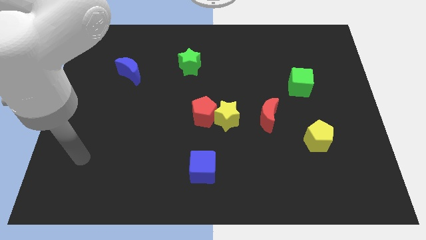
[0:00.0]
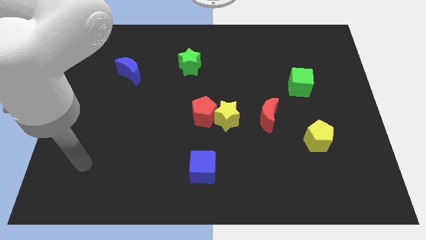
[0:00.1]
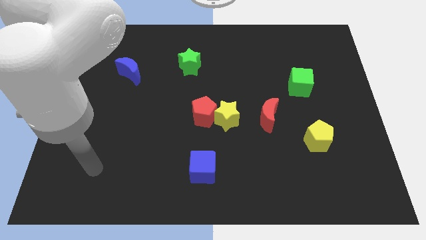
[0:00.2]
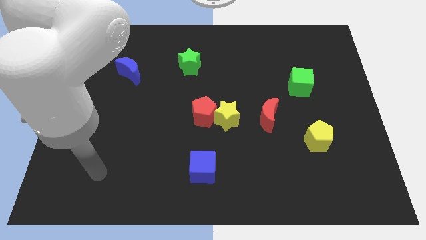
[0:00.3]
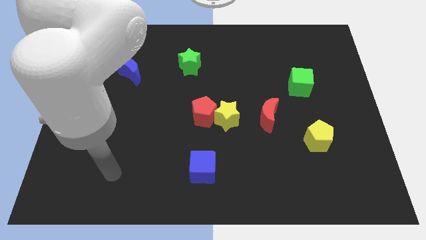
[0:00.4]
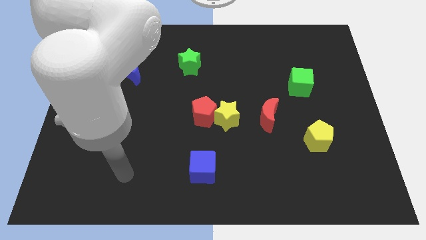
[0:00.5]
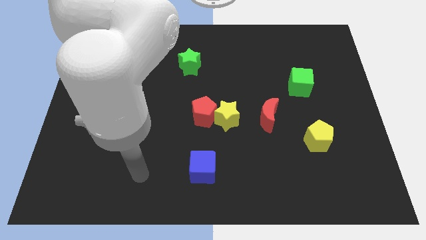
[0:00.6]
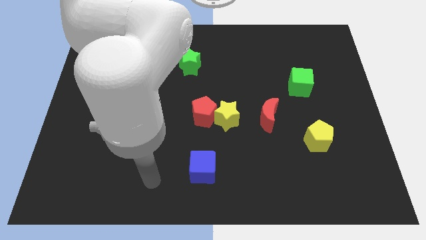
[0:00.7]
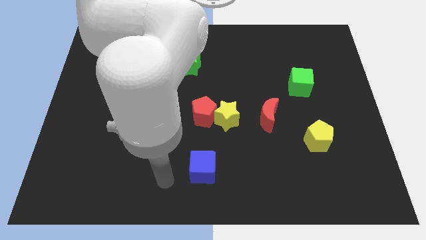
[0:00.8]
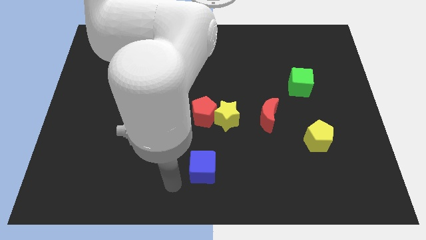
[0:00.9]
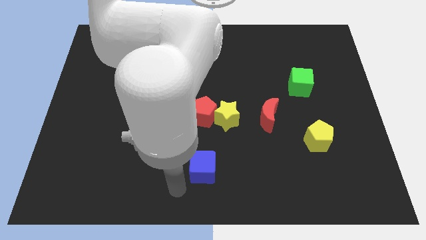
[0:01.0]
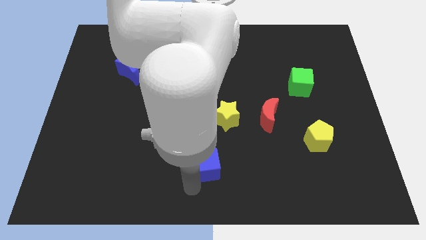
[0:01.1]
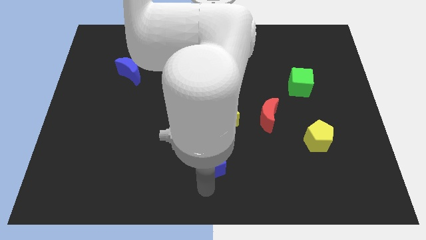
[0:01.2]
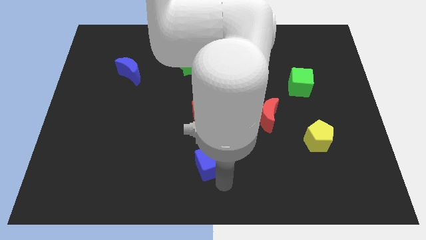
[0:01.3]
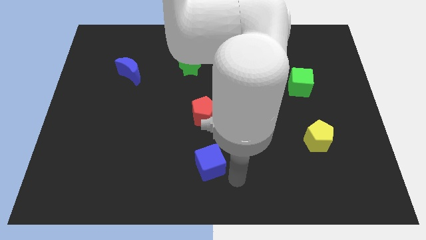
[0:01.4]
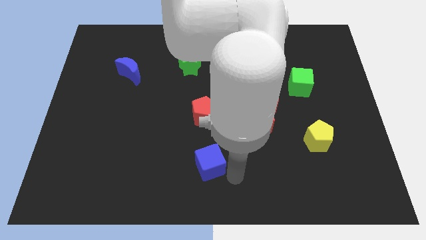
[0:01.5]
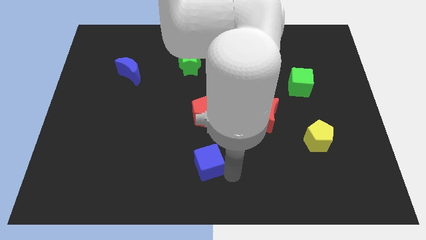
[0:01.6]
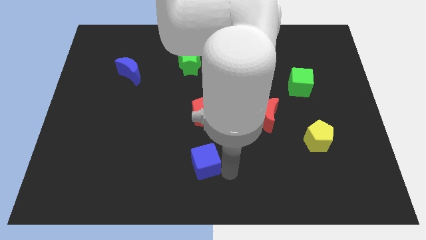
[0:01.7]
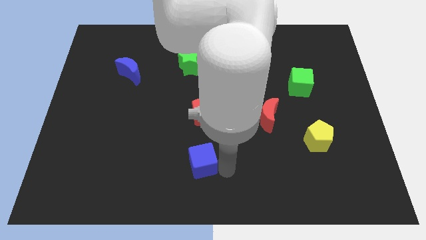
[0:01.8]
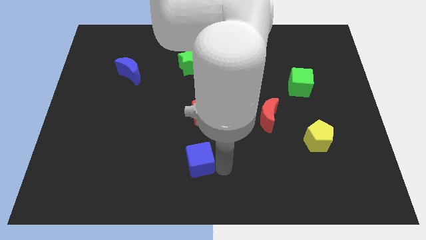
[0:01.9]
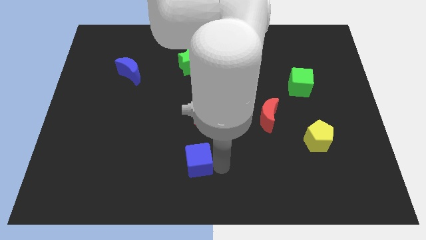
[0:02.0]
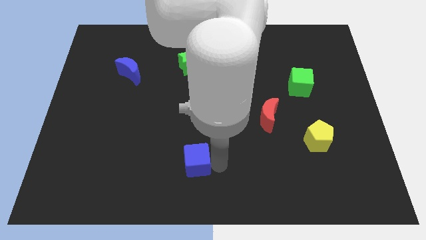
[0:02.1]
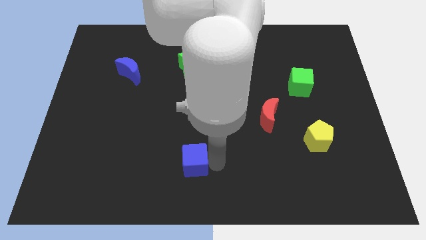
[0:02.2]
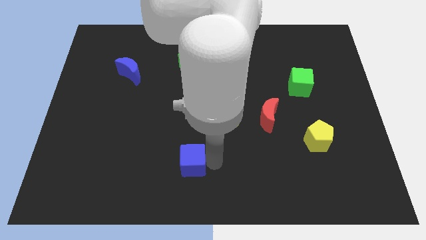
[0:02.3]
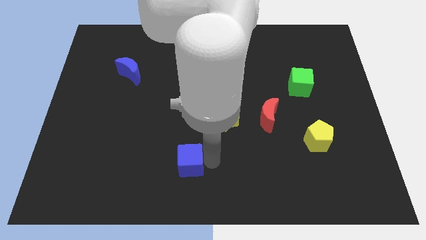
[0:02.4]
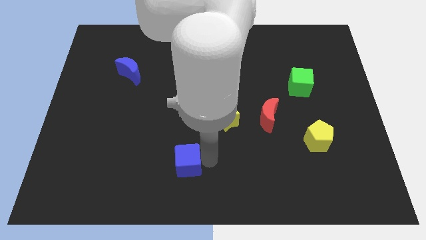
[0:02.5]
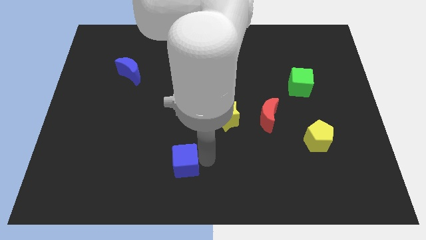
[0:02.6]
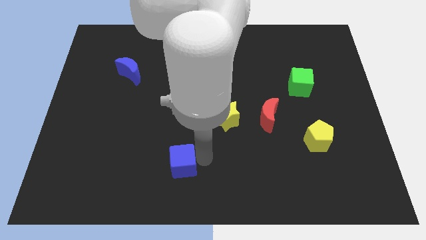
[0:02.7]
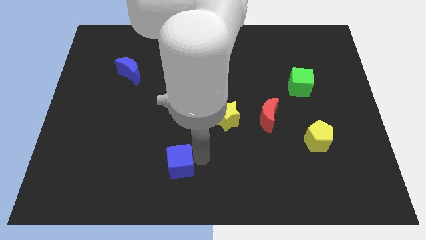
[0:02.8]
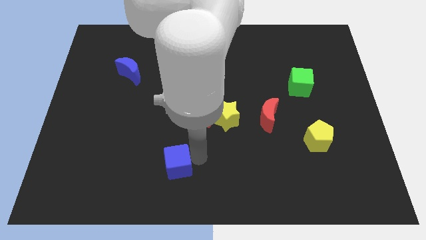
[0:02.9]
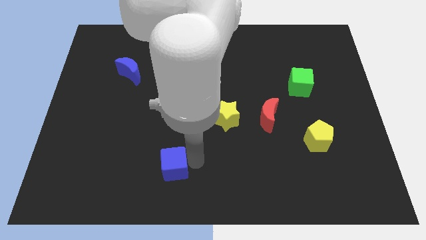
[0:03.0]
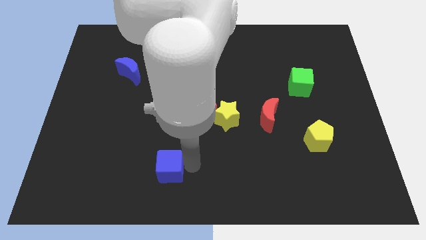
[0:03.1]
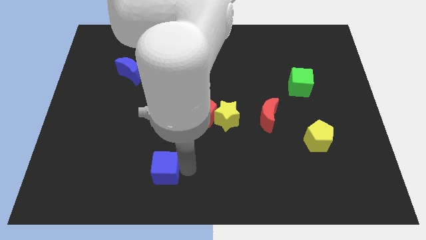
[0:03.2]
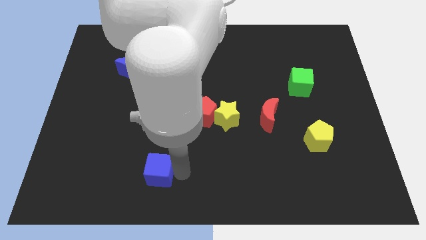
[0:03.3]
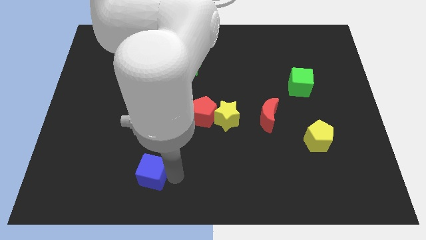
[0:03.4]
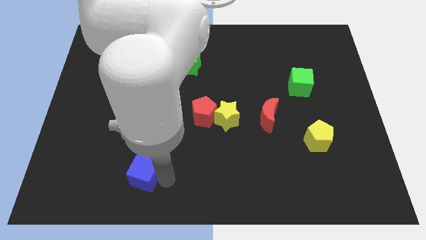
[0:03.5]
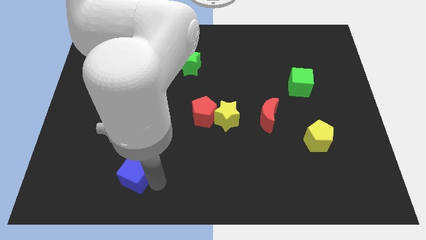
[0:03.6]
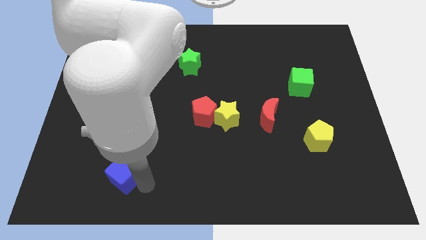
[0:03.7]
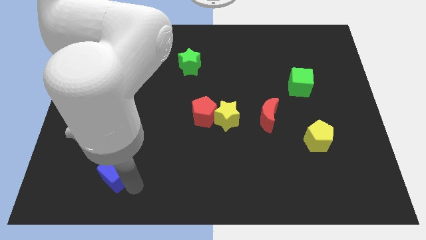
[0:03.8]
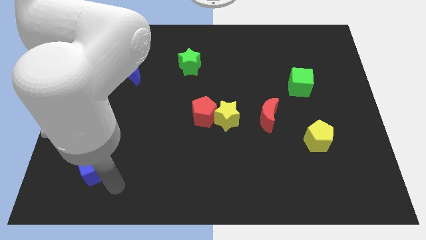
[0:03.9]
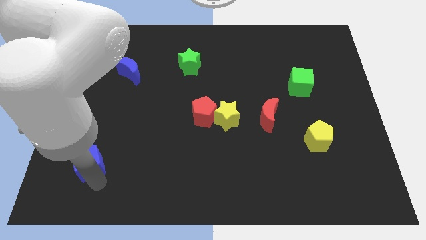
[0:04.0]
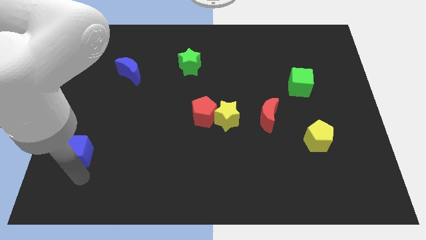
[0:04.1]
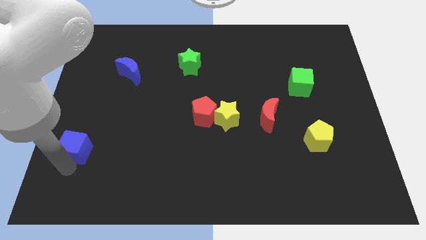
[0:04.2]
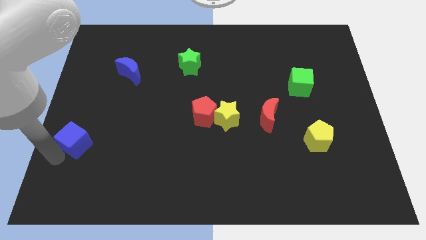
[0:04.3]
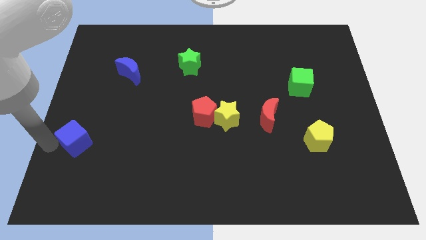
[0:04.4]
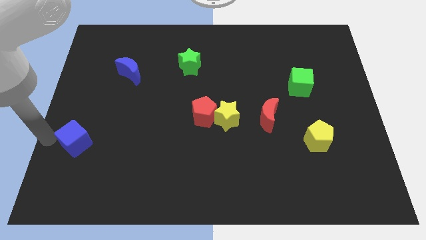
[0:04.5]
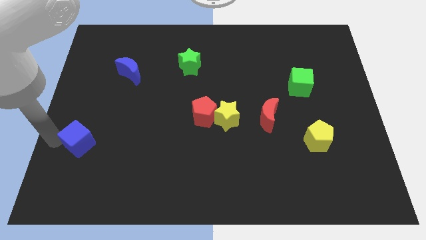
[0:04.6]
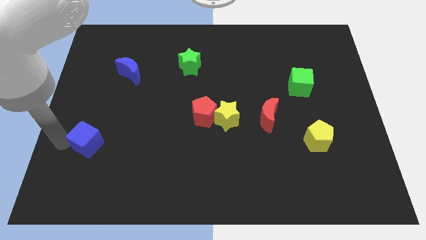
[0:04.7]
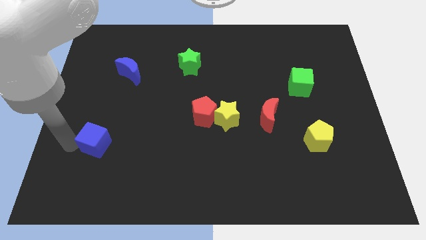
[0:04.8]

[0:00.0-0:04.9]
slightly move the blue cube up and to the left

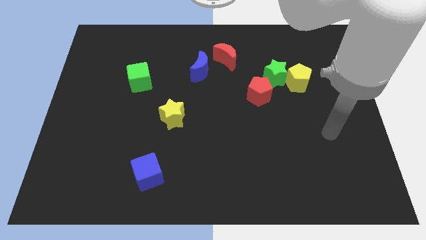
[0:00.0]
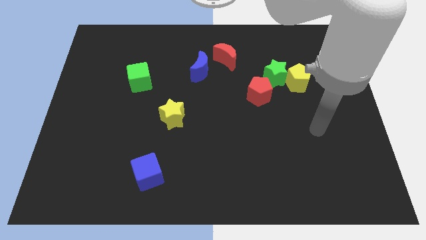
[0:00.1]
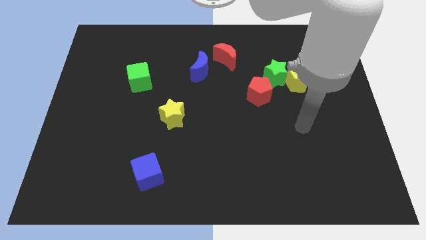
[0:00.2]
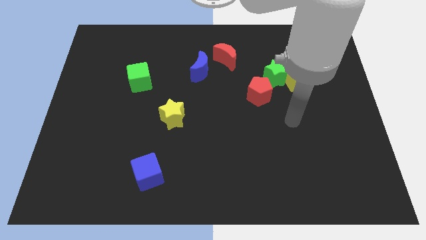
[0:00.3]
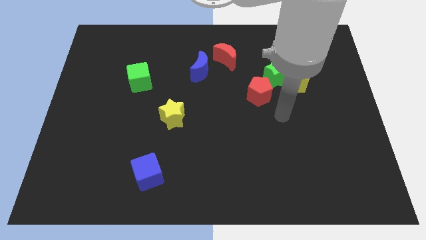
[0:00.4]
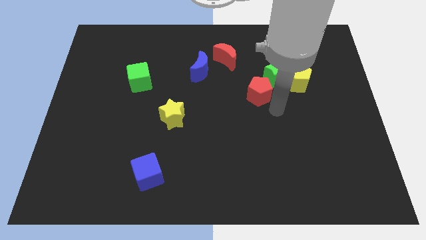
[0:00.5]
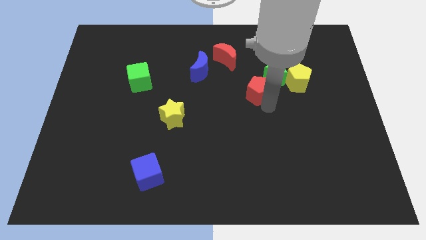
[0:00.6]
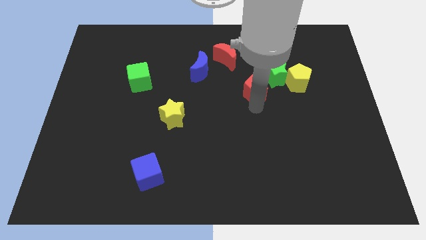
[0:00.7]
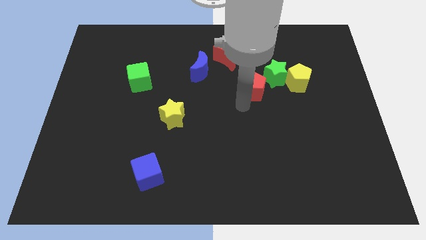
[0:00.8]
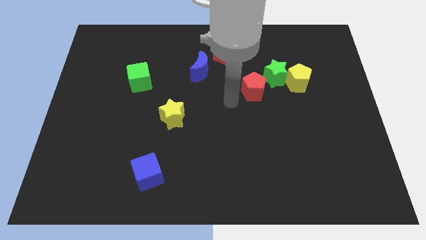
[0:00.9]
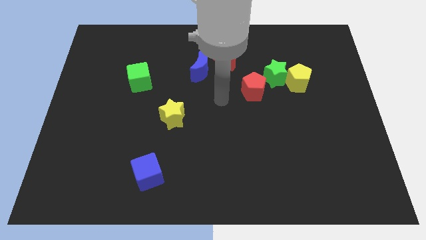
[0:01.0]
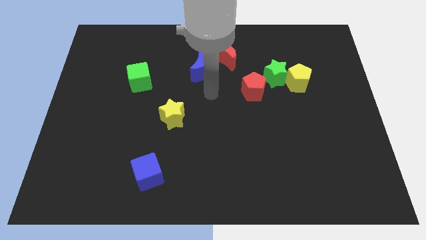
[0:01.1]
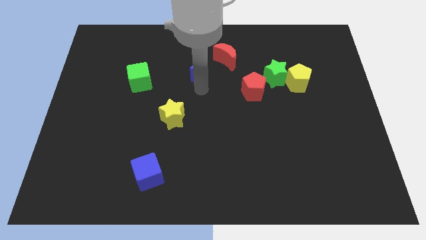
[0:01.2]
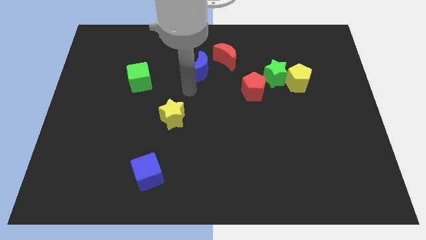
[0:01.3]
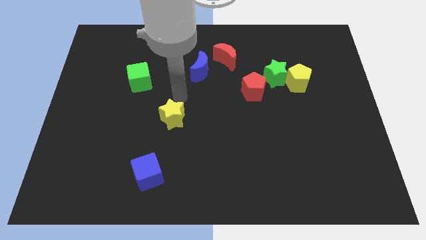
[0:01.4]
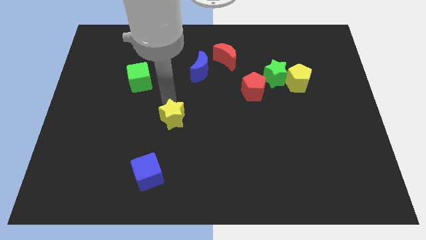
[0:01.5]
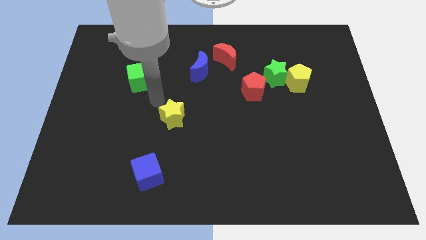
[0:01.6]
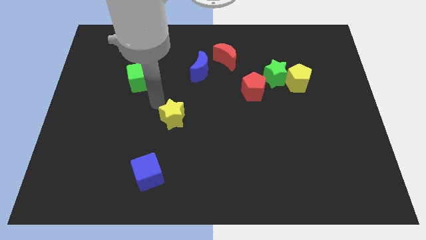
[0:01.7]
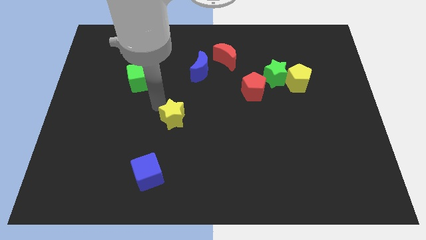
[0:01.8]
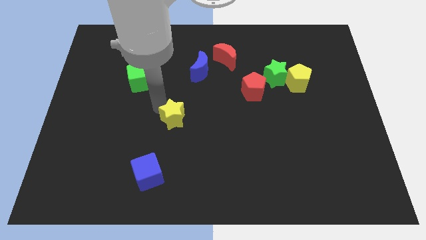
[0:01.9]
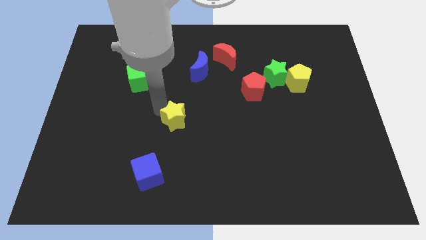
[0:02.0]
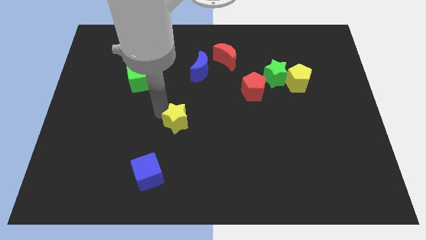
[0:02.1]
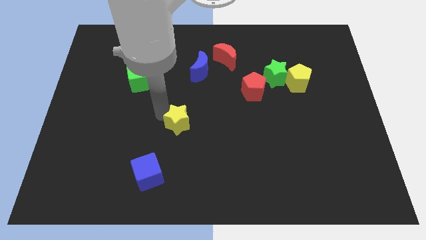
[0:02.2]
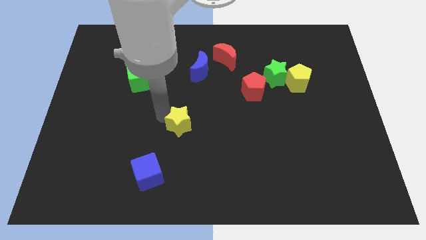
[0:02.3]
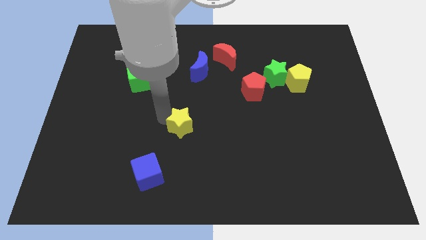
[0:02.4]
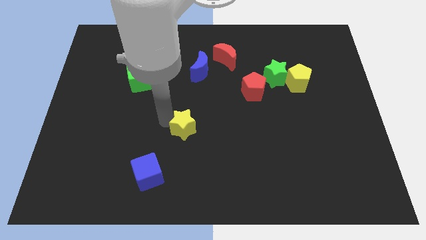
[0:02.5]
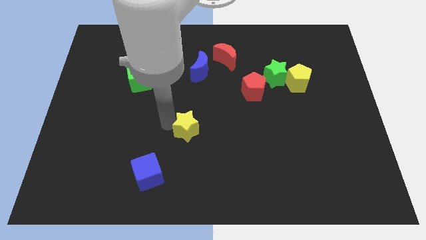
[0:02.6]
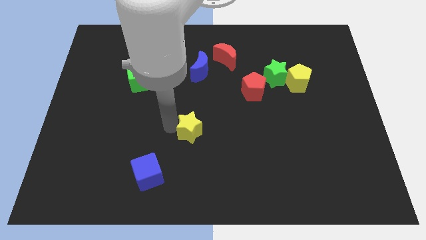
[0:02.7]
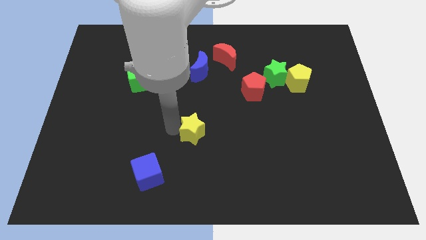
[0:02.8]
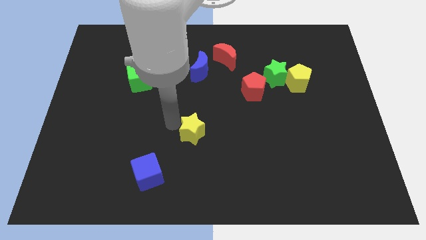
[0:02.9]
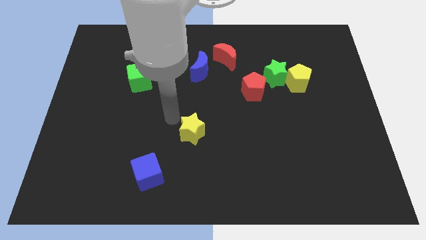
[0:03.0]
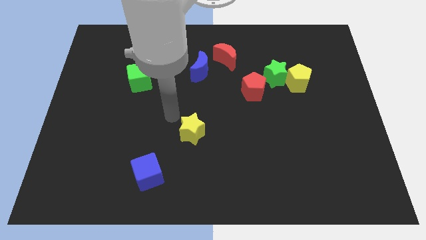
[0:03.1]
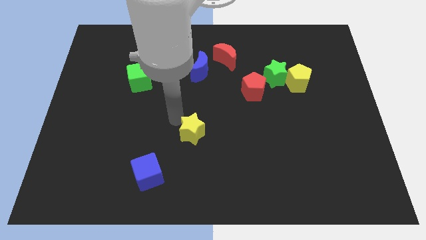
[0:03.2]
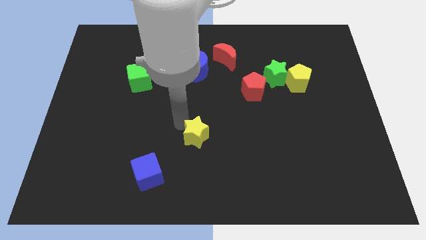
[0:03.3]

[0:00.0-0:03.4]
slightly move the yellow star down and to the right diagonally
